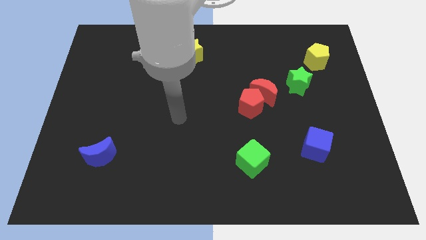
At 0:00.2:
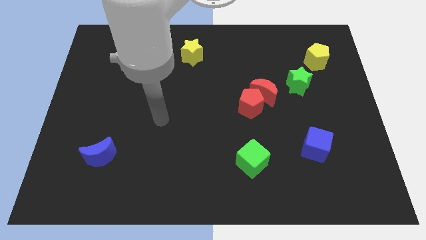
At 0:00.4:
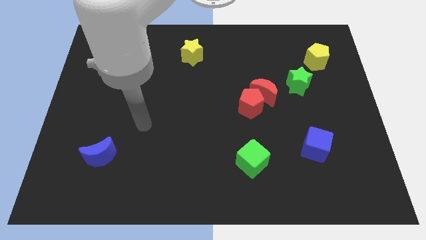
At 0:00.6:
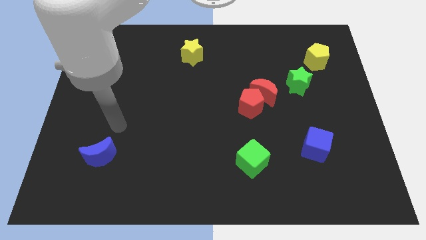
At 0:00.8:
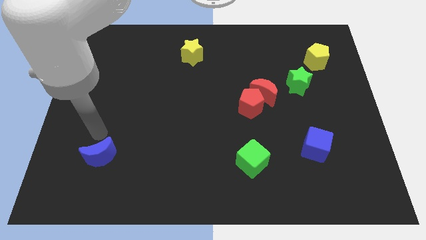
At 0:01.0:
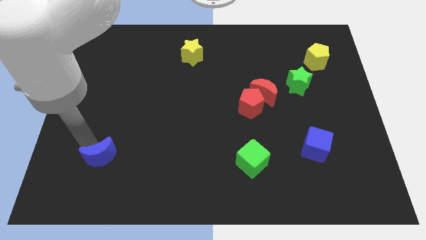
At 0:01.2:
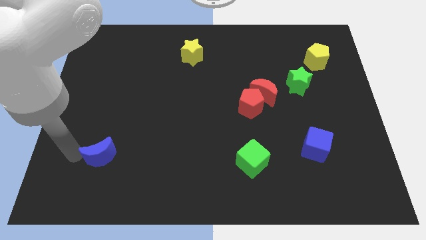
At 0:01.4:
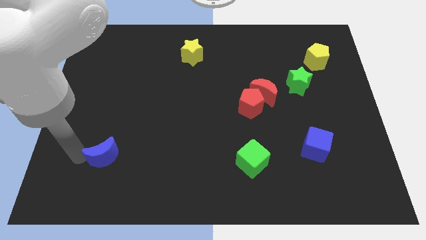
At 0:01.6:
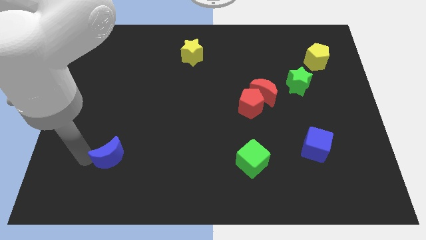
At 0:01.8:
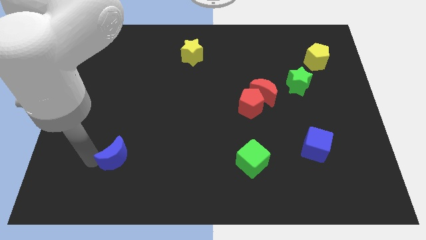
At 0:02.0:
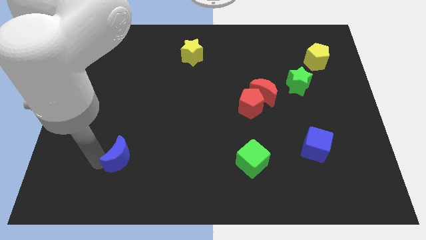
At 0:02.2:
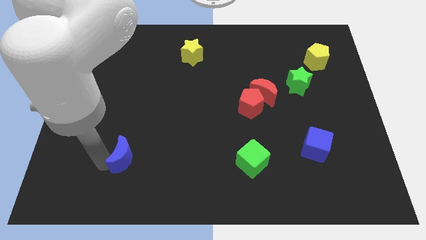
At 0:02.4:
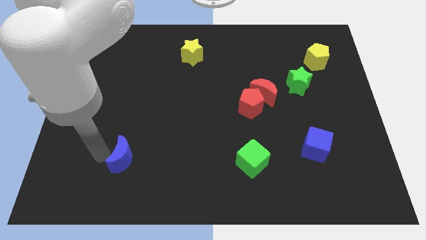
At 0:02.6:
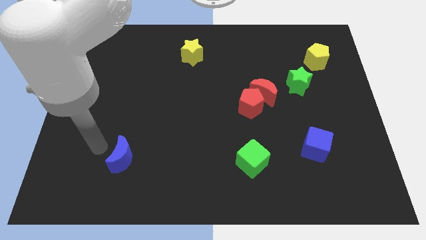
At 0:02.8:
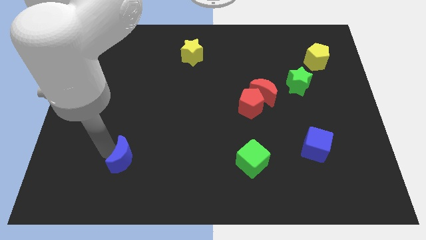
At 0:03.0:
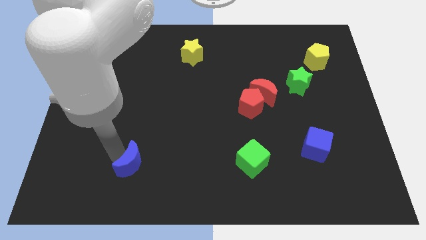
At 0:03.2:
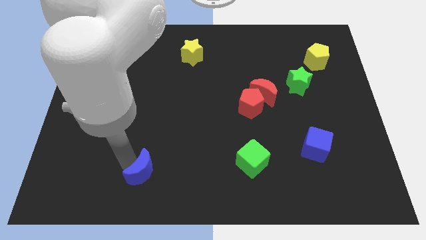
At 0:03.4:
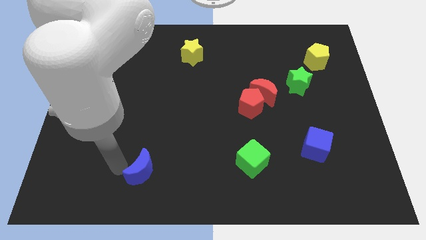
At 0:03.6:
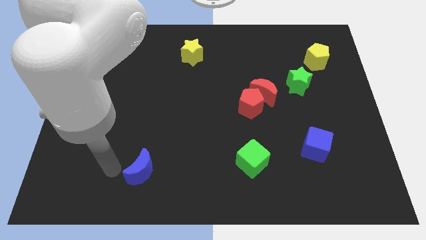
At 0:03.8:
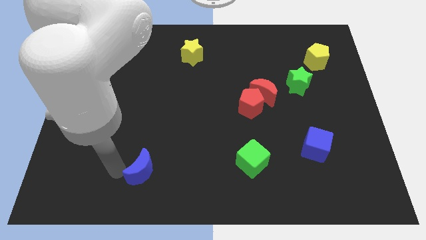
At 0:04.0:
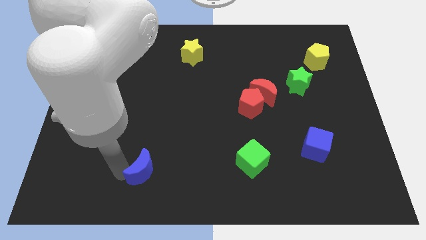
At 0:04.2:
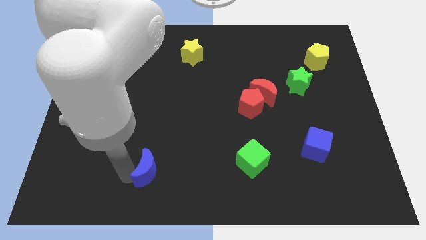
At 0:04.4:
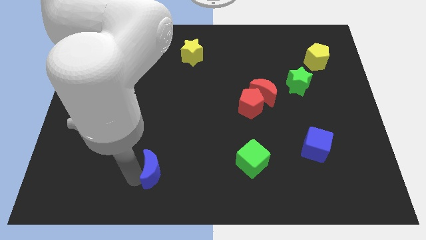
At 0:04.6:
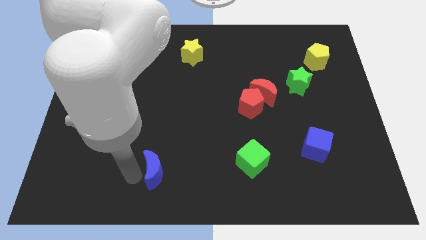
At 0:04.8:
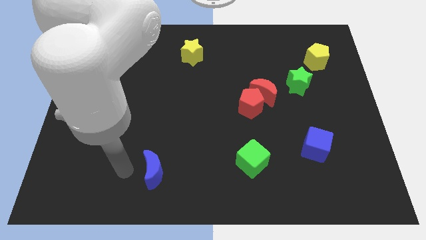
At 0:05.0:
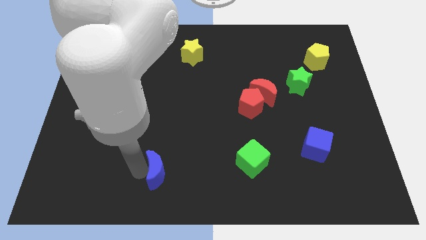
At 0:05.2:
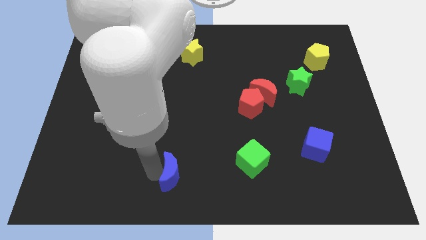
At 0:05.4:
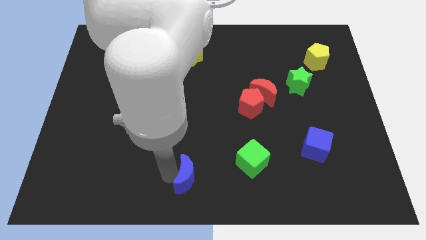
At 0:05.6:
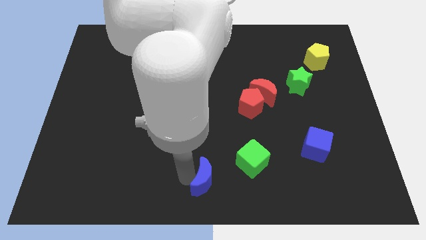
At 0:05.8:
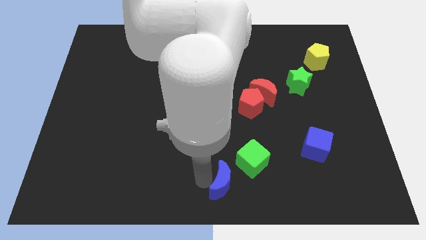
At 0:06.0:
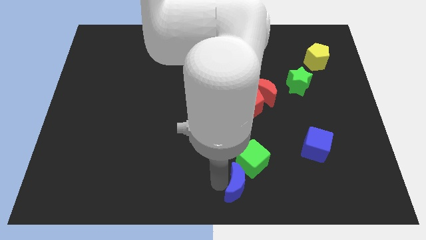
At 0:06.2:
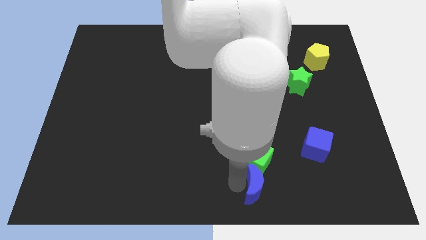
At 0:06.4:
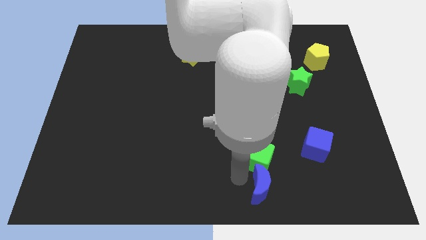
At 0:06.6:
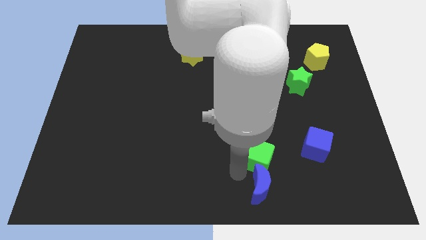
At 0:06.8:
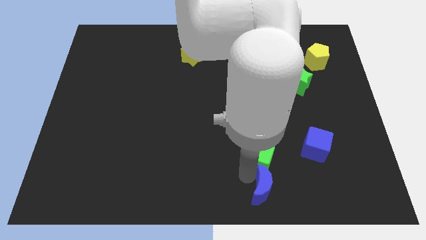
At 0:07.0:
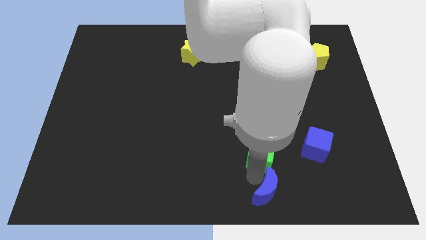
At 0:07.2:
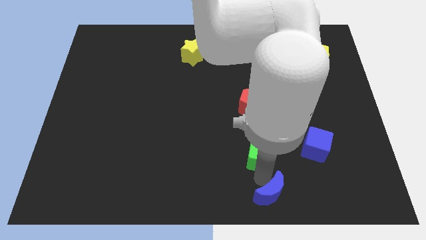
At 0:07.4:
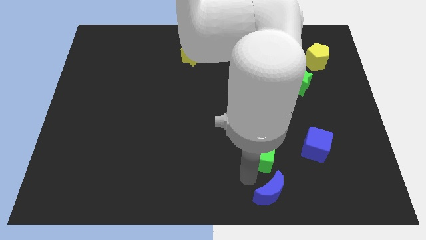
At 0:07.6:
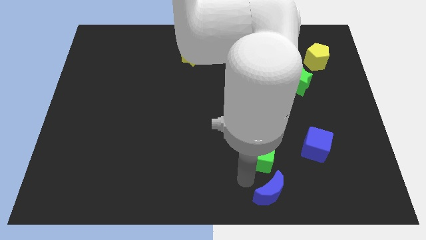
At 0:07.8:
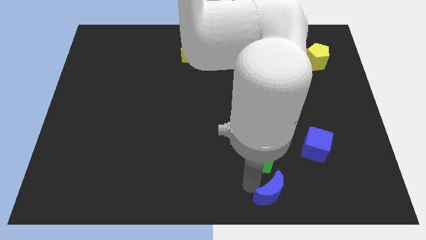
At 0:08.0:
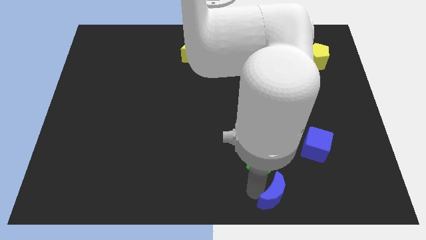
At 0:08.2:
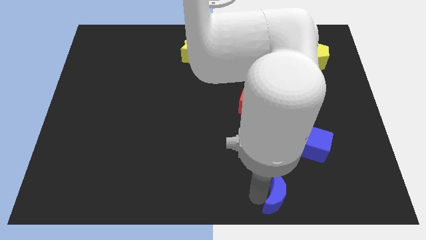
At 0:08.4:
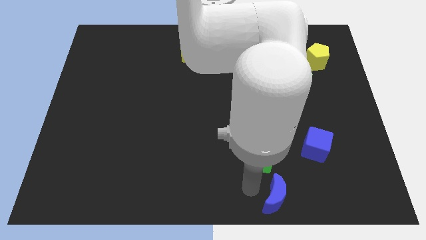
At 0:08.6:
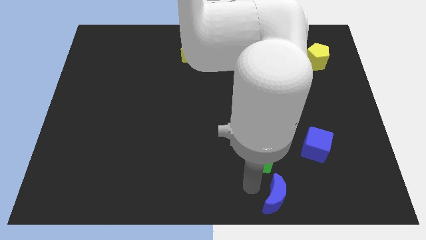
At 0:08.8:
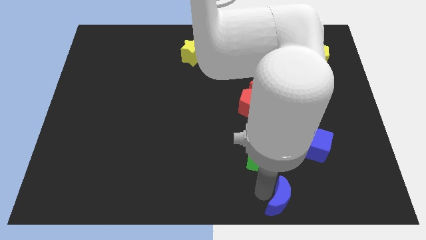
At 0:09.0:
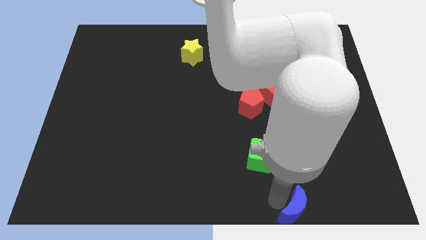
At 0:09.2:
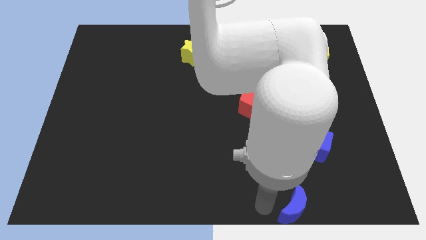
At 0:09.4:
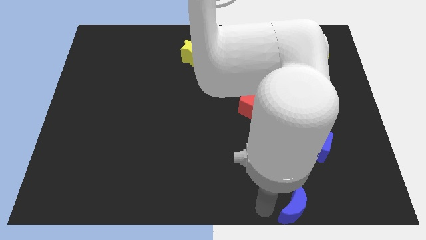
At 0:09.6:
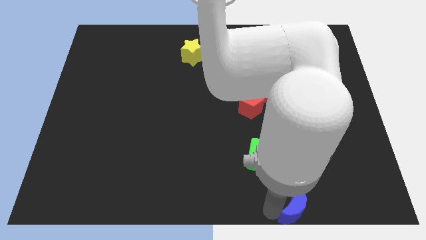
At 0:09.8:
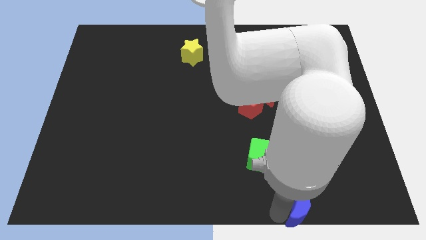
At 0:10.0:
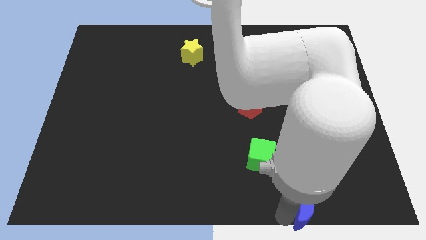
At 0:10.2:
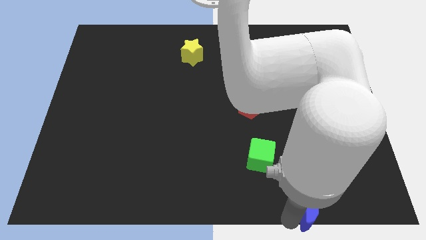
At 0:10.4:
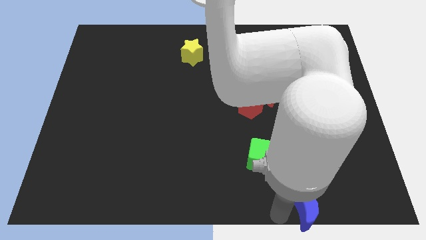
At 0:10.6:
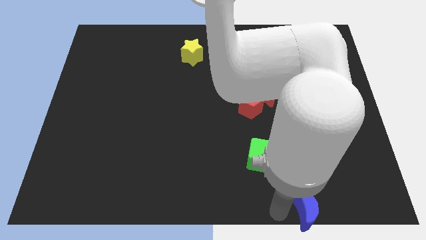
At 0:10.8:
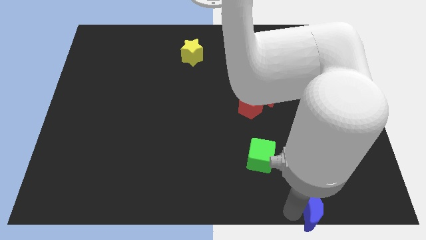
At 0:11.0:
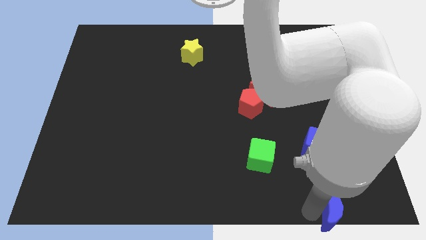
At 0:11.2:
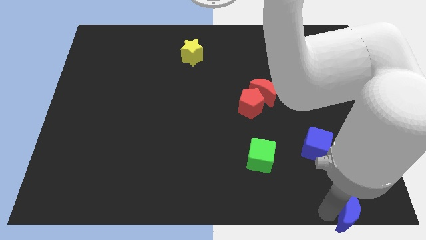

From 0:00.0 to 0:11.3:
slide the blue moon to the bottom right corner

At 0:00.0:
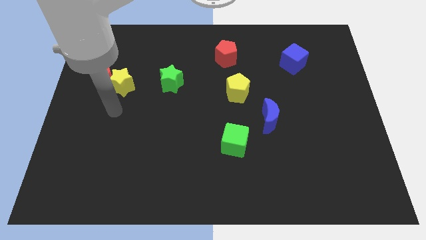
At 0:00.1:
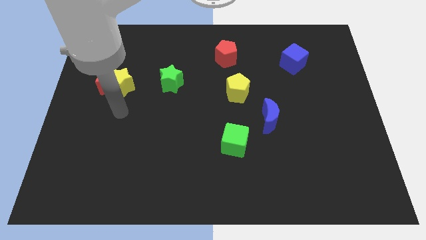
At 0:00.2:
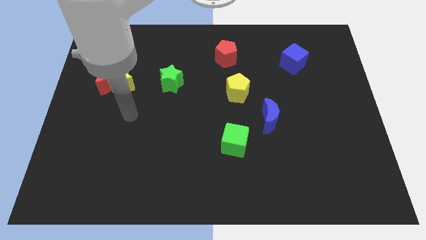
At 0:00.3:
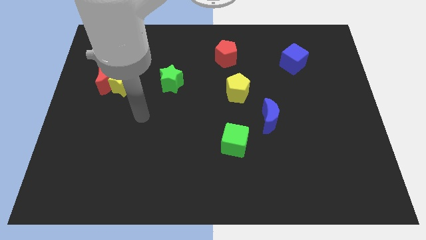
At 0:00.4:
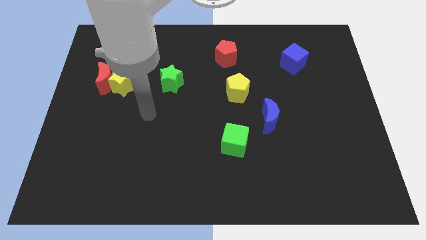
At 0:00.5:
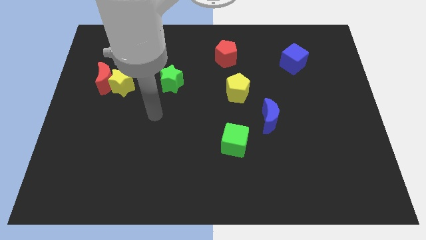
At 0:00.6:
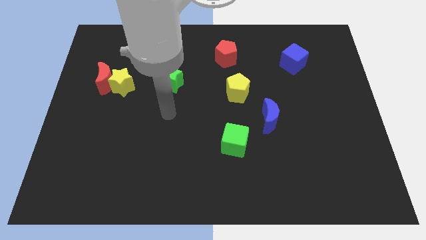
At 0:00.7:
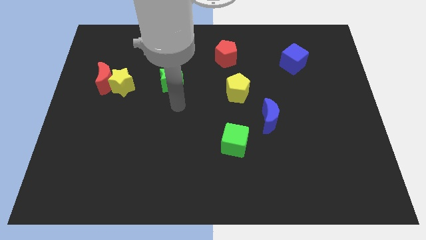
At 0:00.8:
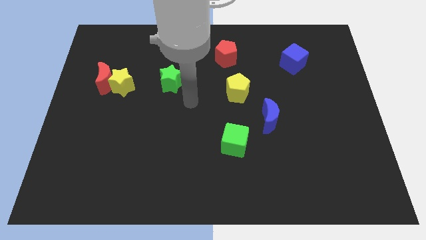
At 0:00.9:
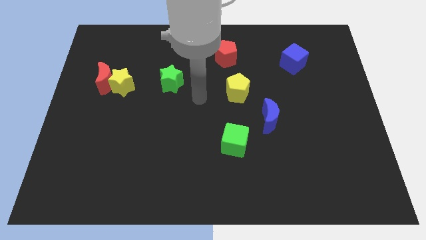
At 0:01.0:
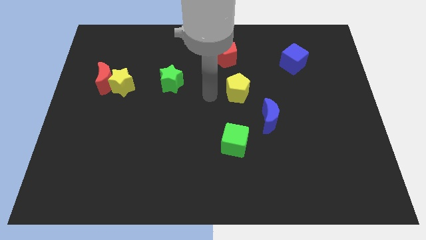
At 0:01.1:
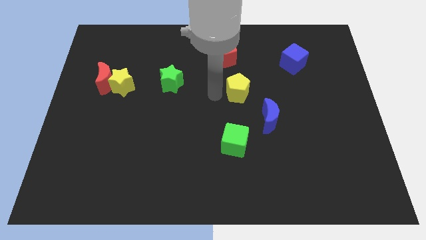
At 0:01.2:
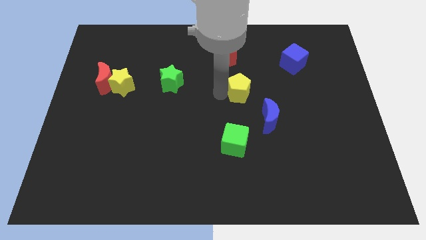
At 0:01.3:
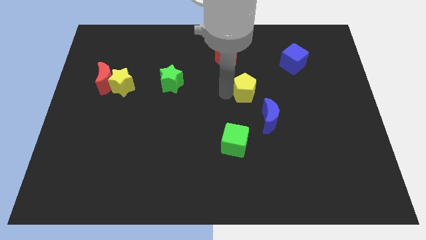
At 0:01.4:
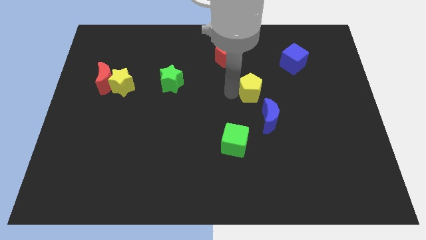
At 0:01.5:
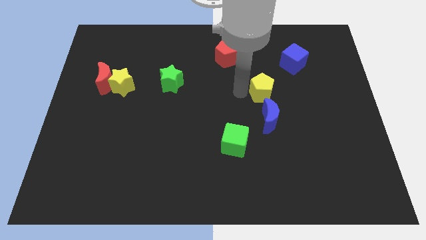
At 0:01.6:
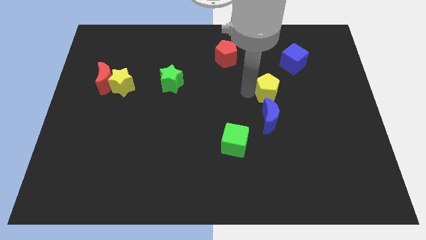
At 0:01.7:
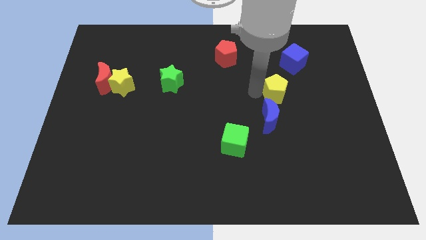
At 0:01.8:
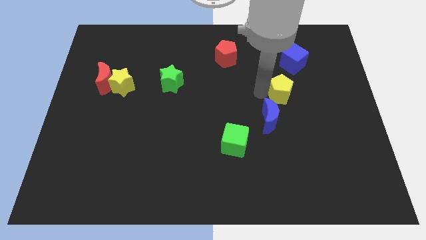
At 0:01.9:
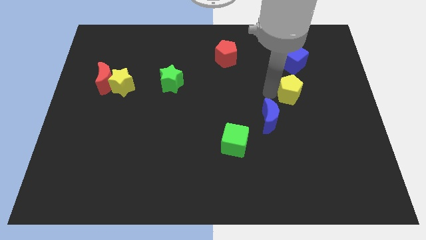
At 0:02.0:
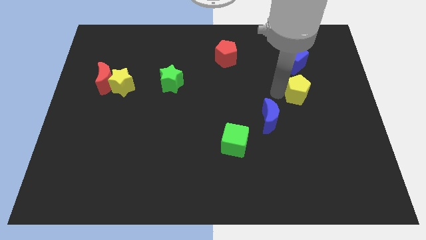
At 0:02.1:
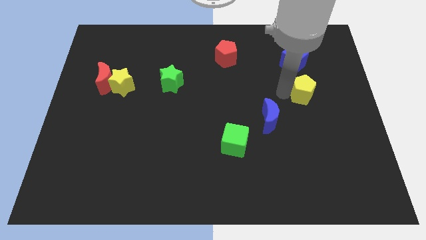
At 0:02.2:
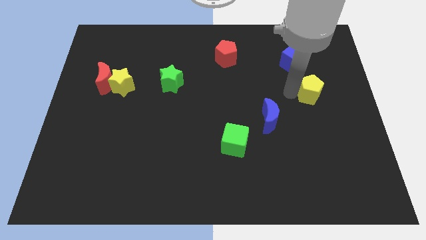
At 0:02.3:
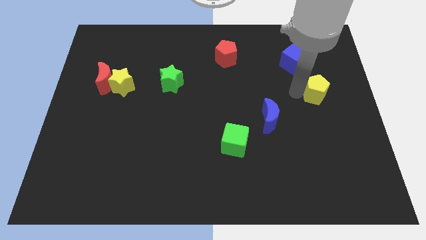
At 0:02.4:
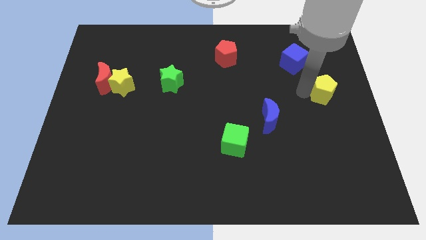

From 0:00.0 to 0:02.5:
put the yellow pentagon to the center right
